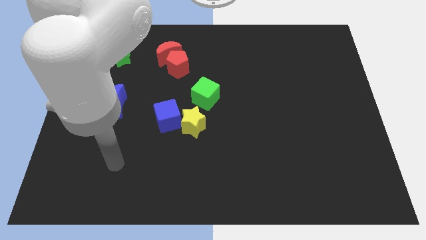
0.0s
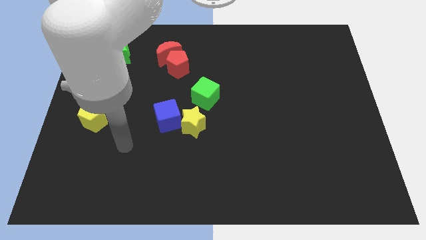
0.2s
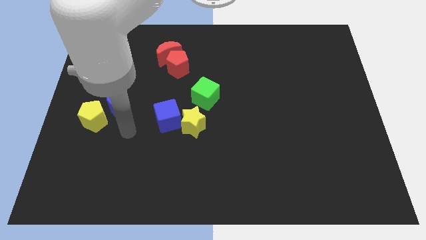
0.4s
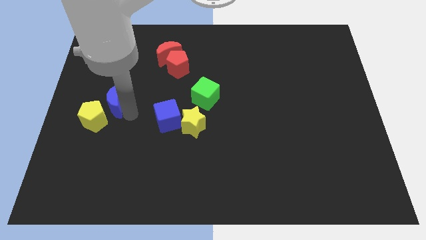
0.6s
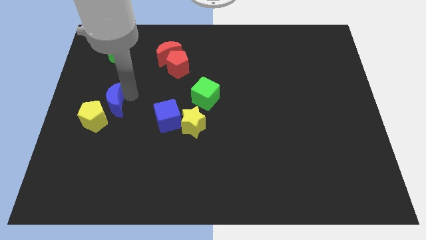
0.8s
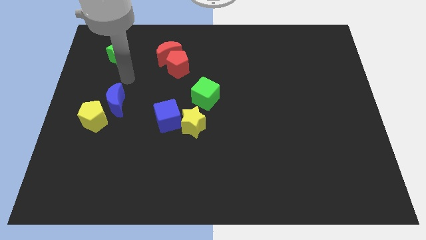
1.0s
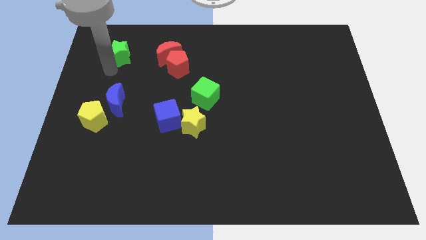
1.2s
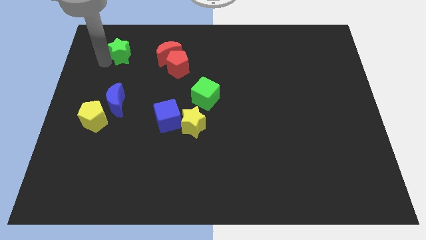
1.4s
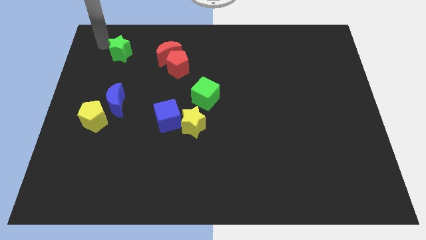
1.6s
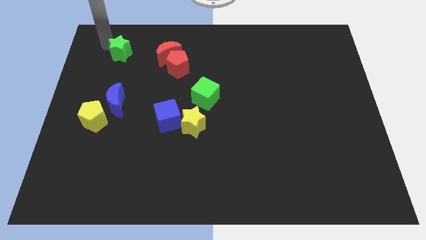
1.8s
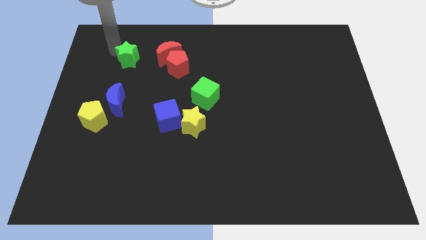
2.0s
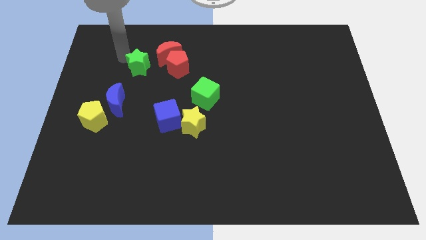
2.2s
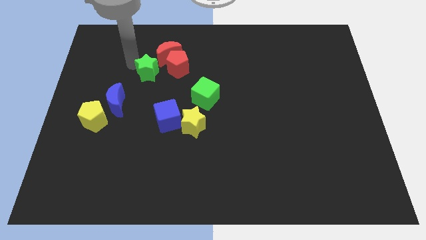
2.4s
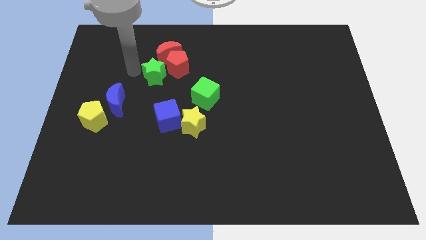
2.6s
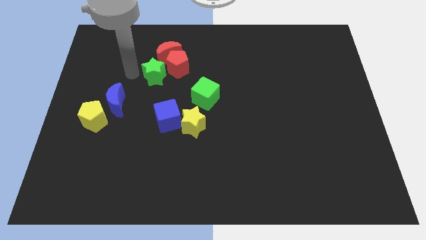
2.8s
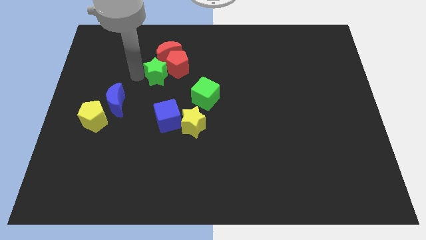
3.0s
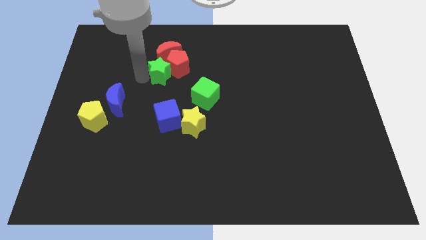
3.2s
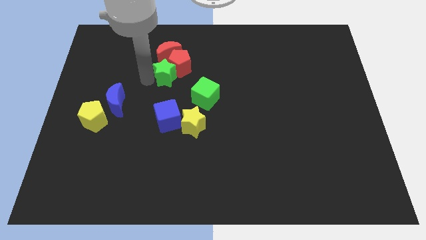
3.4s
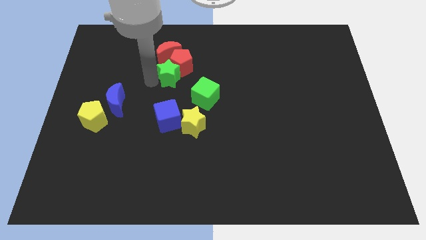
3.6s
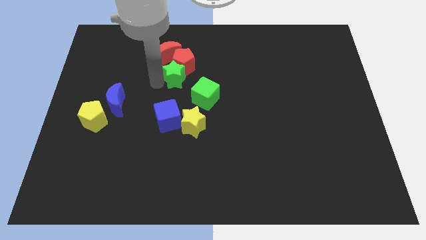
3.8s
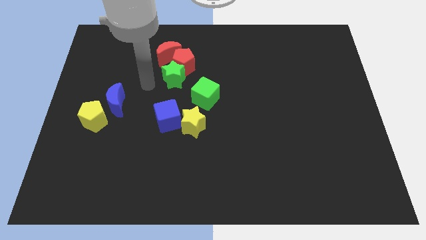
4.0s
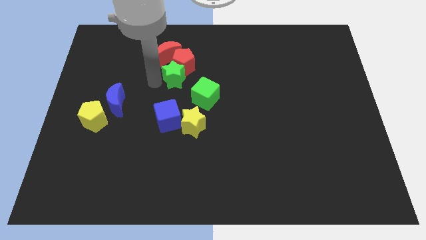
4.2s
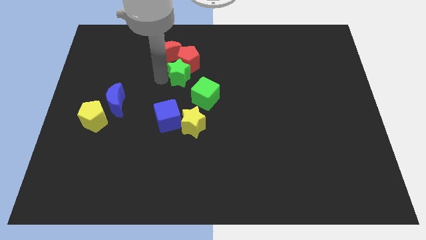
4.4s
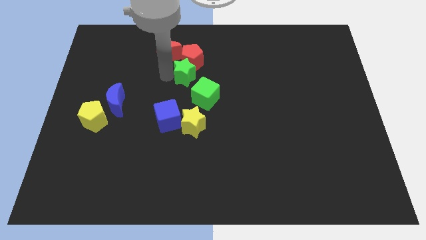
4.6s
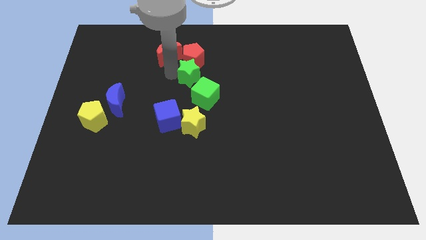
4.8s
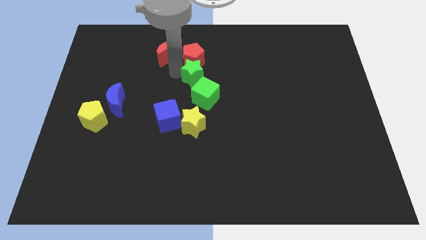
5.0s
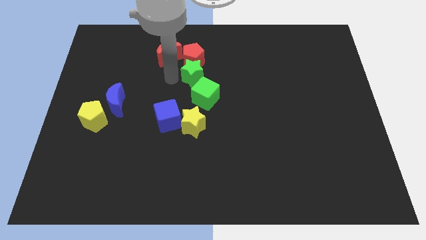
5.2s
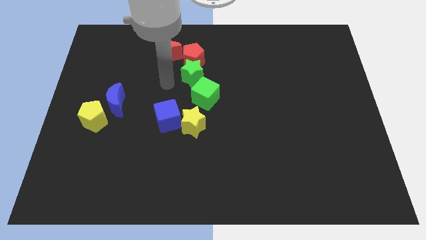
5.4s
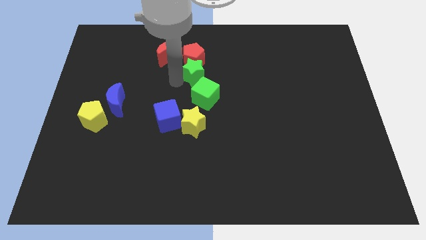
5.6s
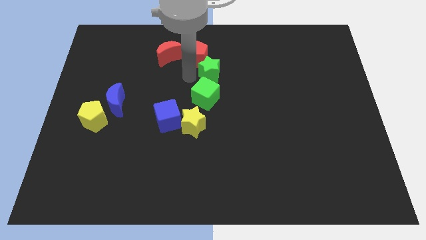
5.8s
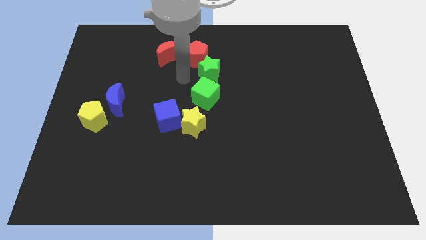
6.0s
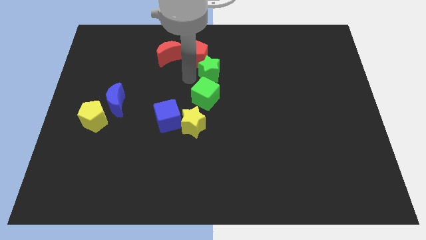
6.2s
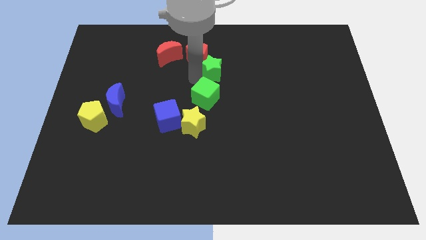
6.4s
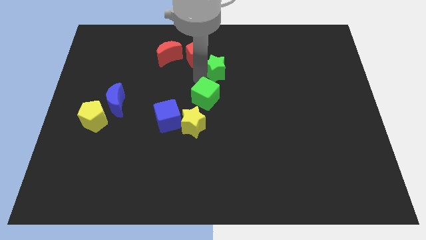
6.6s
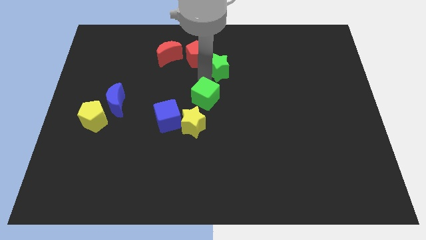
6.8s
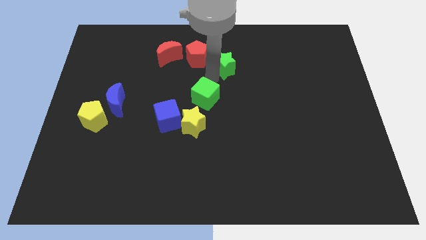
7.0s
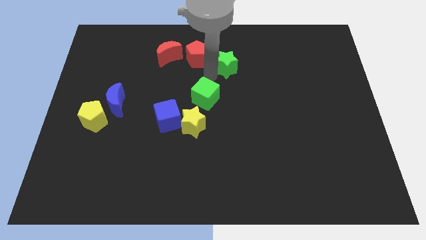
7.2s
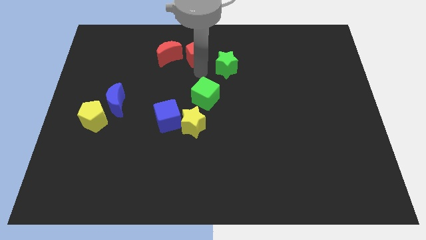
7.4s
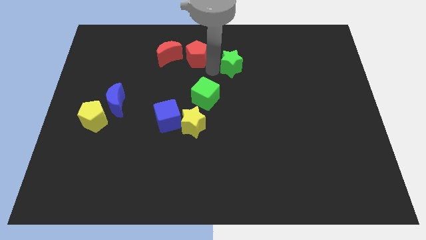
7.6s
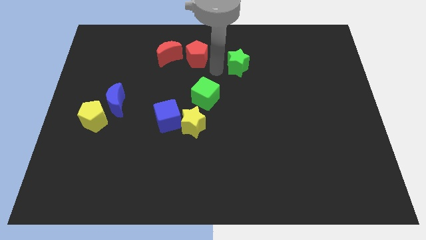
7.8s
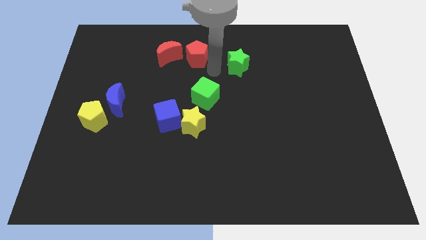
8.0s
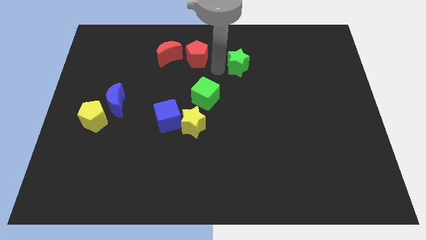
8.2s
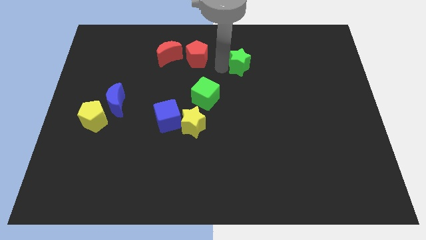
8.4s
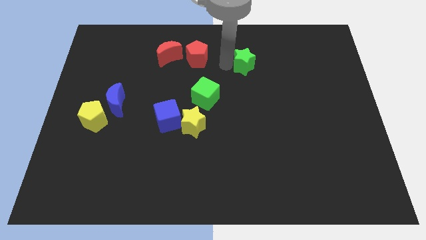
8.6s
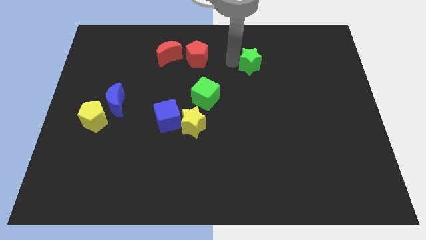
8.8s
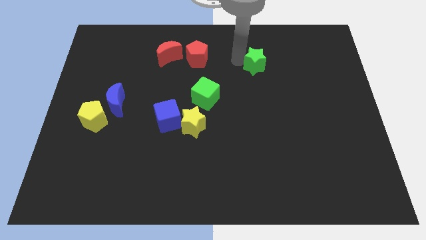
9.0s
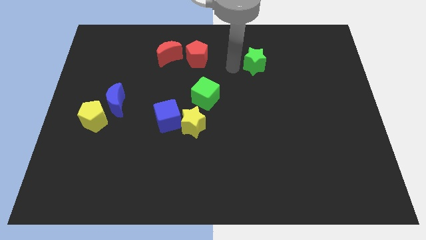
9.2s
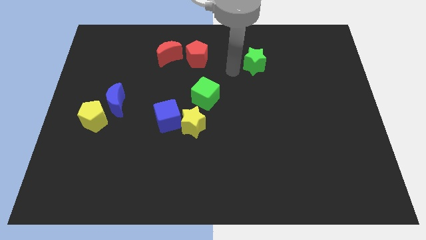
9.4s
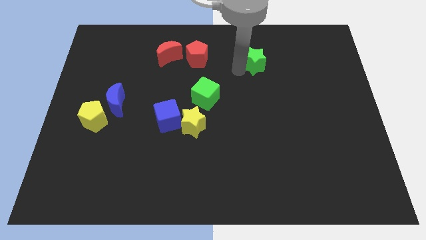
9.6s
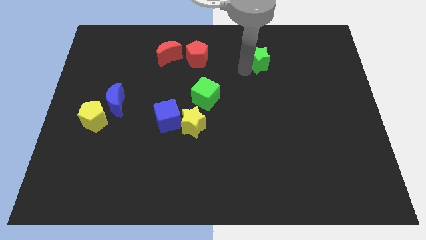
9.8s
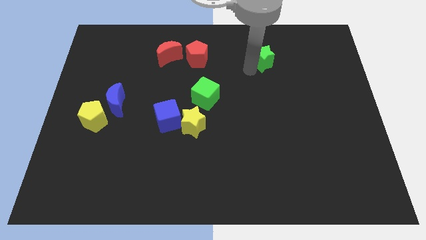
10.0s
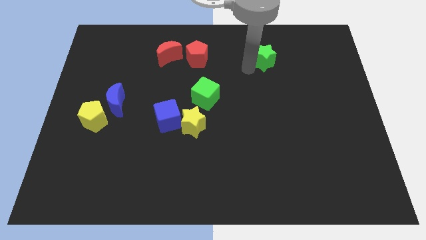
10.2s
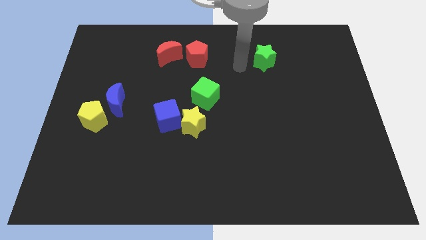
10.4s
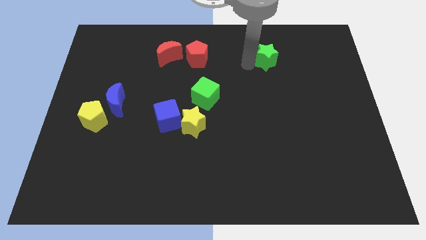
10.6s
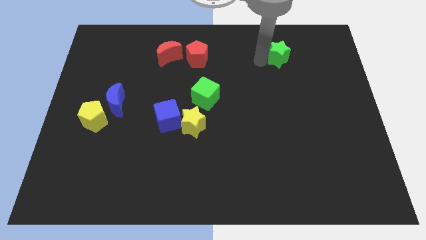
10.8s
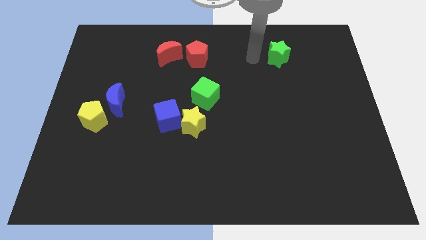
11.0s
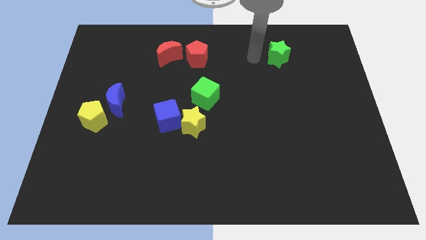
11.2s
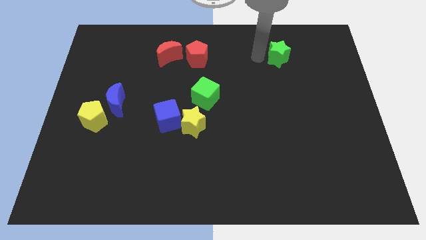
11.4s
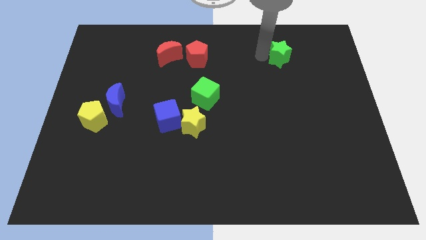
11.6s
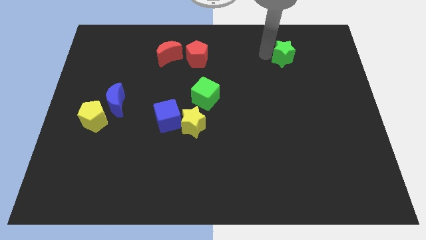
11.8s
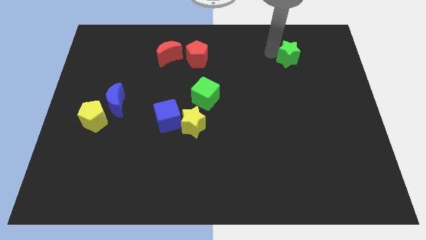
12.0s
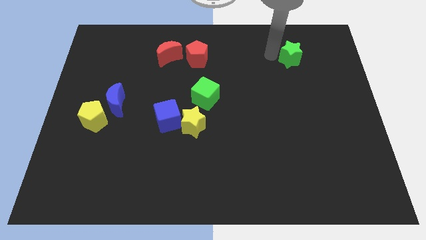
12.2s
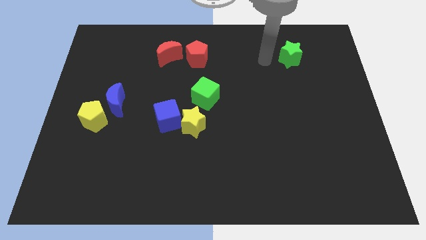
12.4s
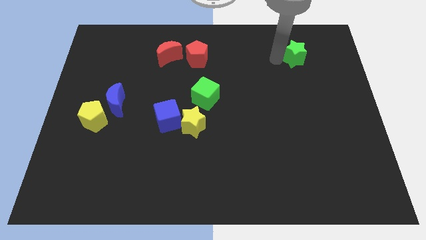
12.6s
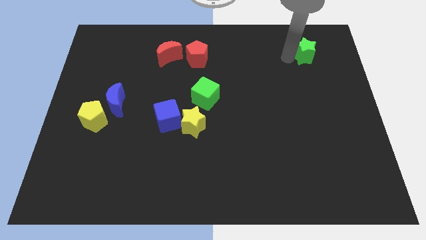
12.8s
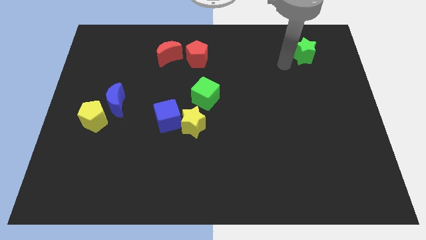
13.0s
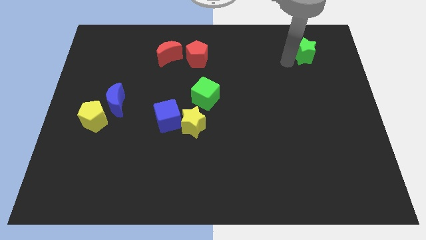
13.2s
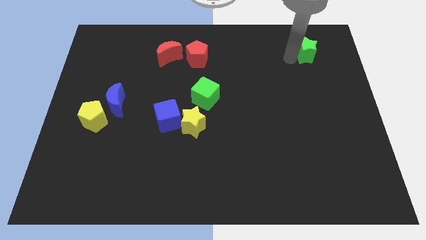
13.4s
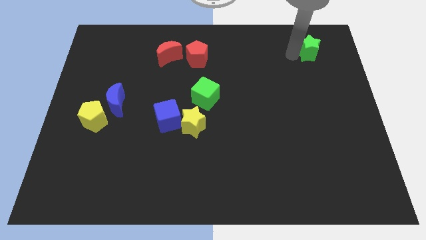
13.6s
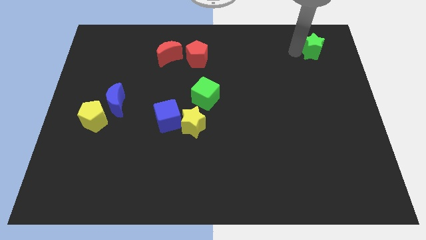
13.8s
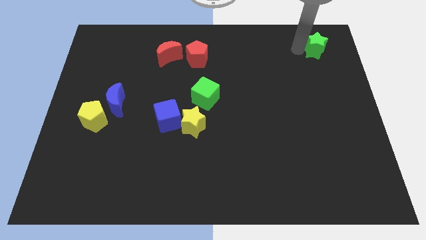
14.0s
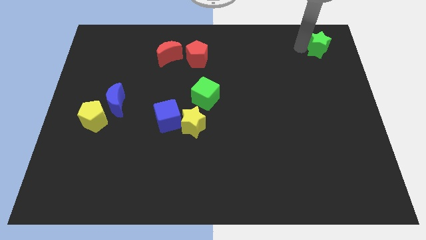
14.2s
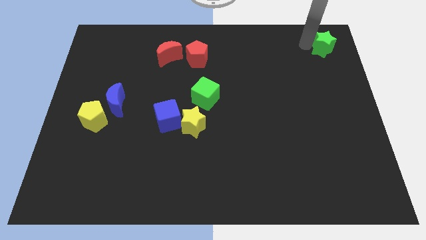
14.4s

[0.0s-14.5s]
push the green star to the top right of the board
